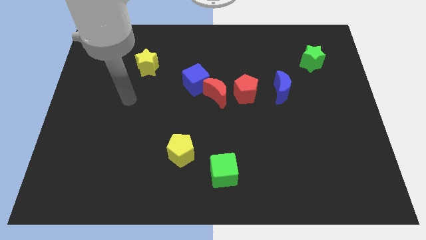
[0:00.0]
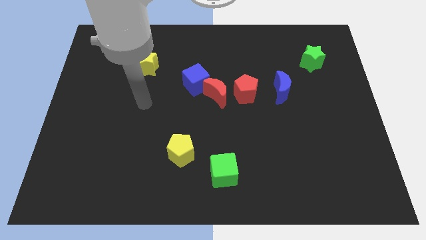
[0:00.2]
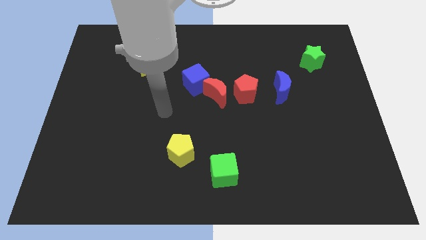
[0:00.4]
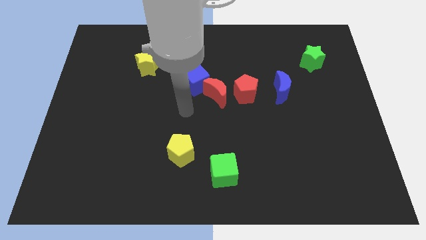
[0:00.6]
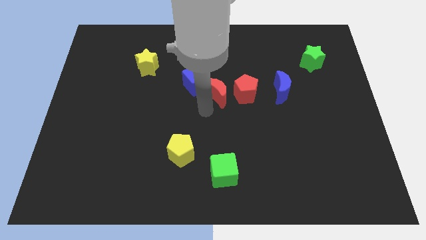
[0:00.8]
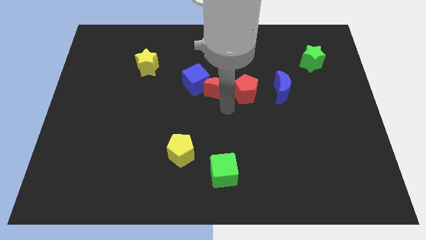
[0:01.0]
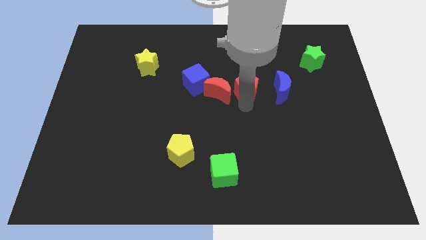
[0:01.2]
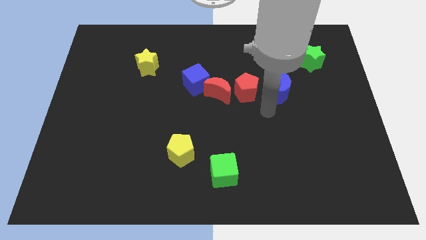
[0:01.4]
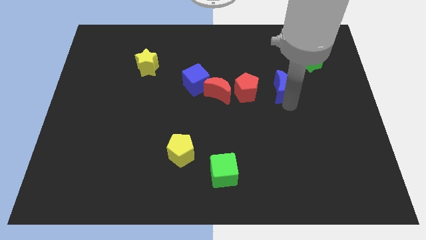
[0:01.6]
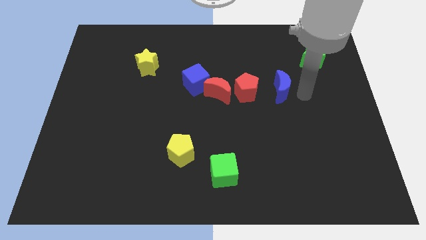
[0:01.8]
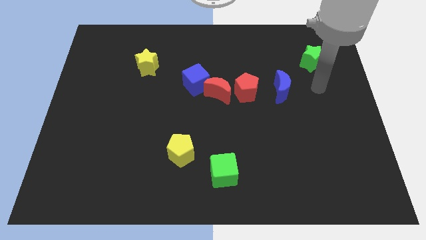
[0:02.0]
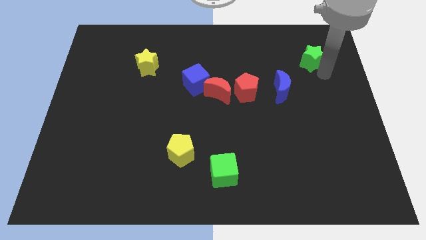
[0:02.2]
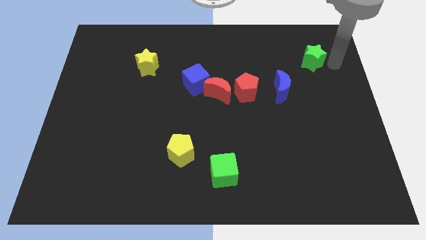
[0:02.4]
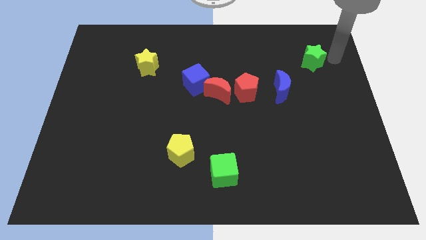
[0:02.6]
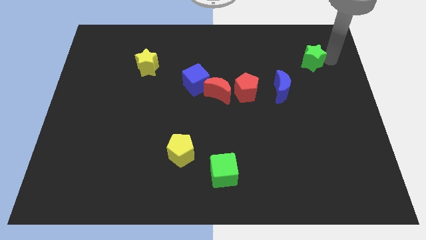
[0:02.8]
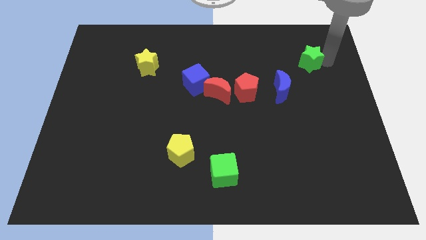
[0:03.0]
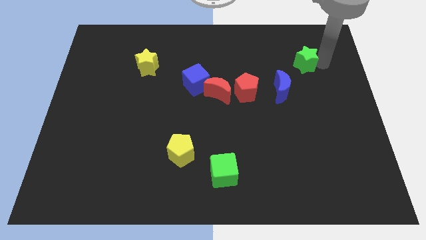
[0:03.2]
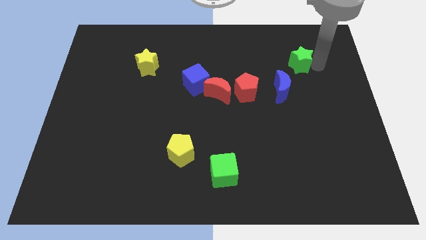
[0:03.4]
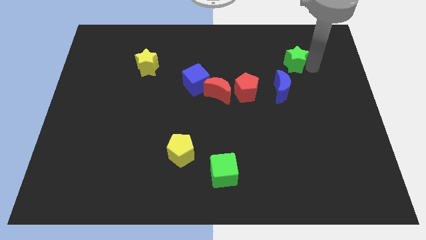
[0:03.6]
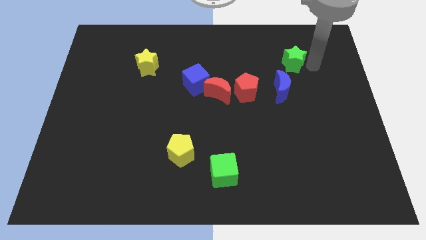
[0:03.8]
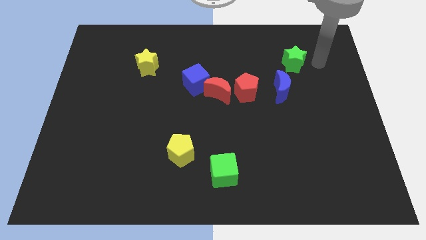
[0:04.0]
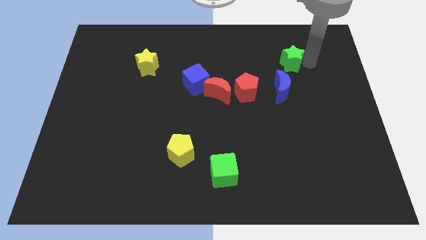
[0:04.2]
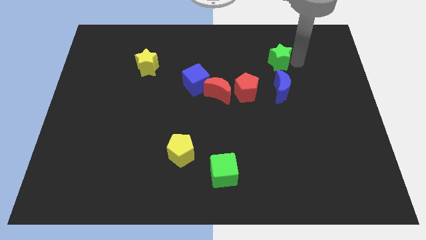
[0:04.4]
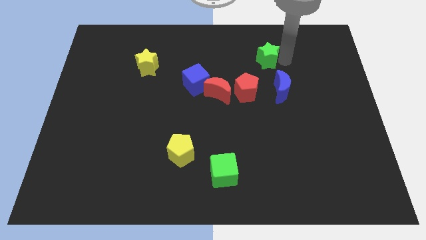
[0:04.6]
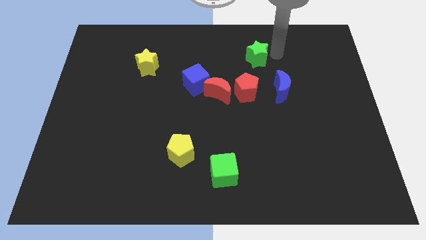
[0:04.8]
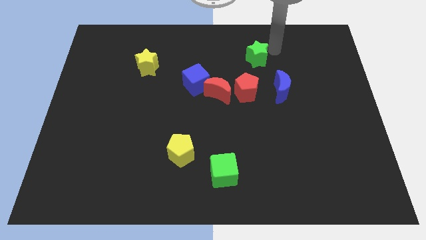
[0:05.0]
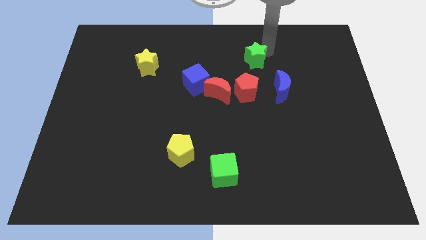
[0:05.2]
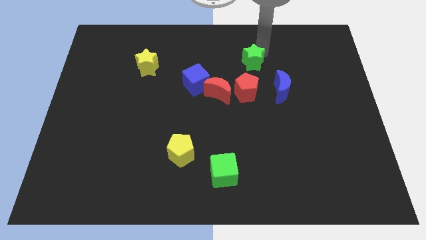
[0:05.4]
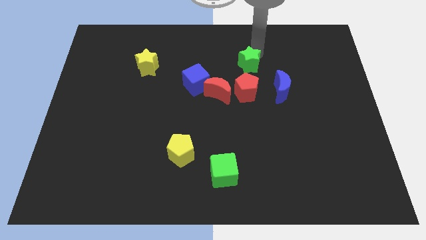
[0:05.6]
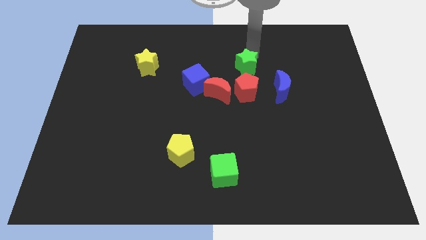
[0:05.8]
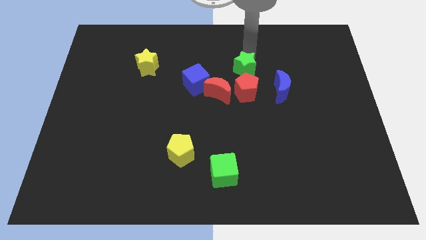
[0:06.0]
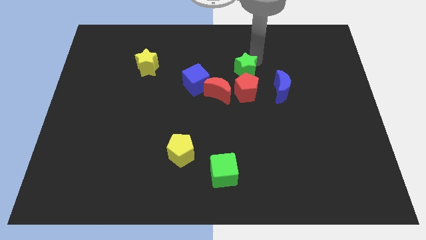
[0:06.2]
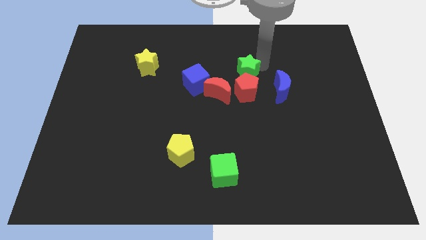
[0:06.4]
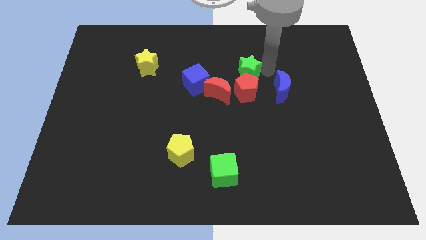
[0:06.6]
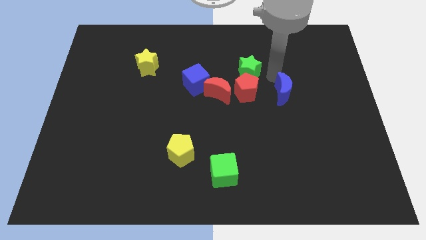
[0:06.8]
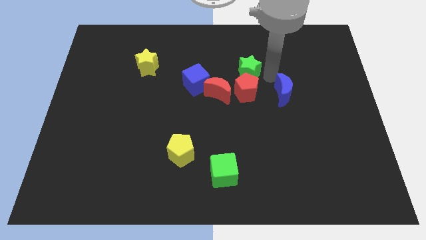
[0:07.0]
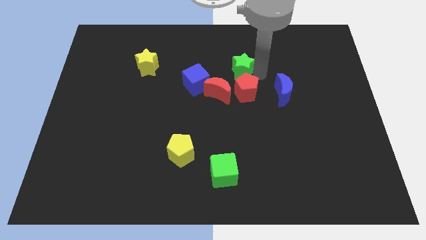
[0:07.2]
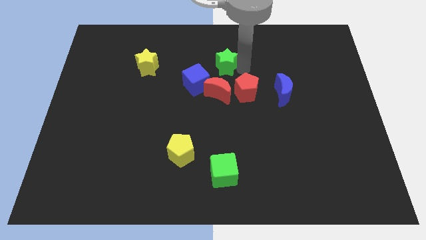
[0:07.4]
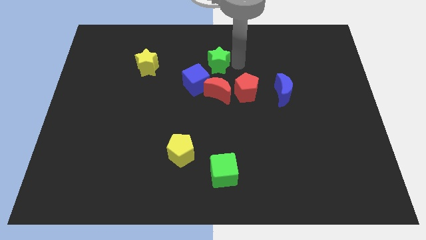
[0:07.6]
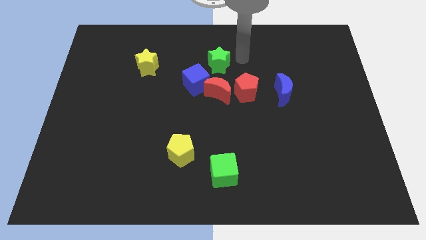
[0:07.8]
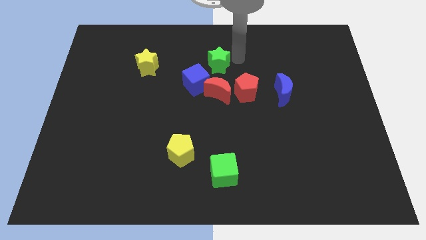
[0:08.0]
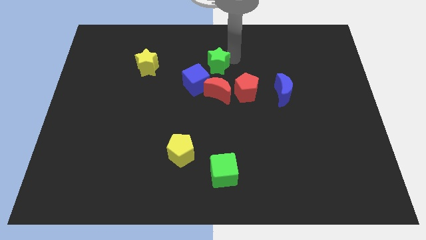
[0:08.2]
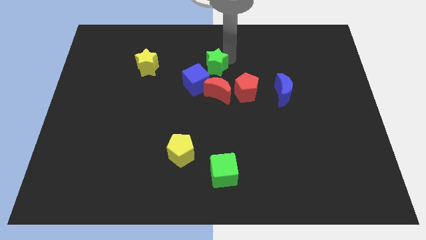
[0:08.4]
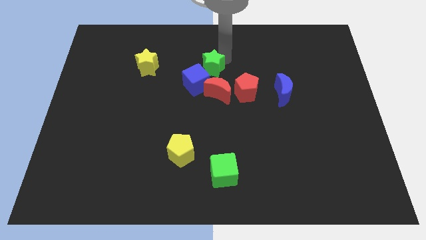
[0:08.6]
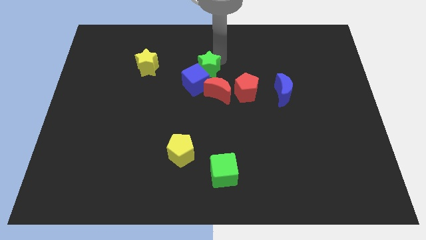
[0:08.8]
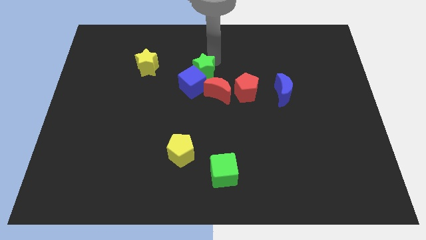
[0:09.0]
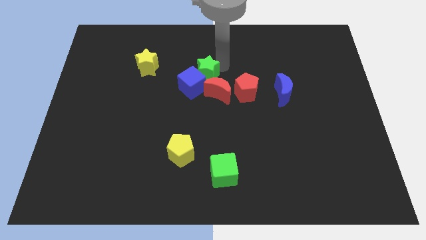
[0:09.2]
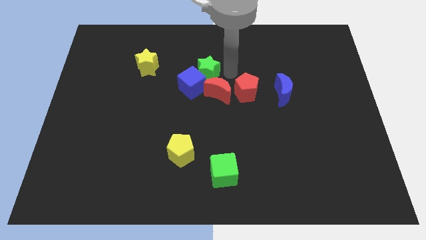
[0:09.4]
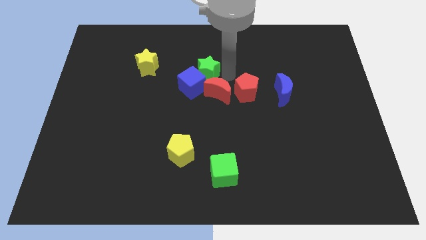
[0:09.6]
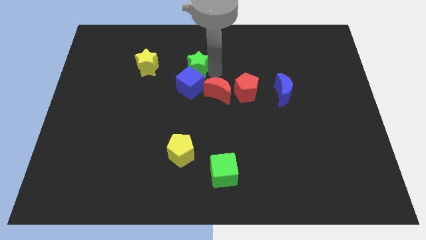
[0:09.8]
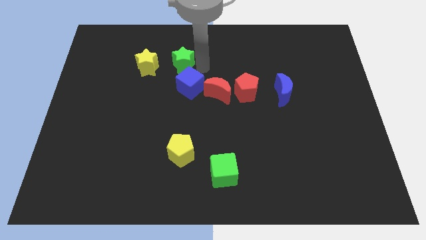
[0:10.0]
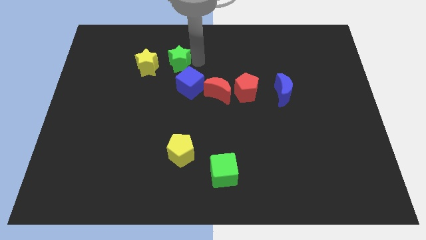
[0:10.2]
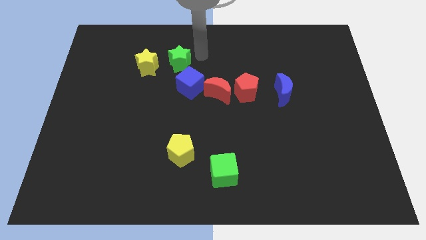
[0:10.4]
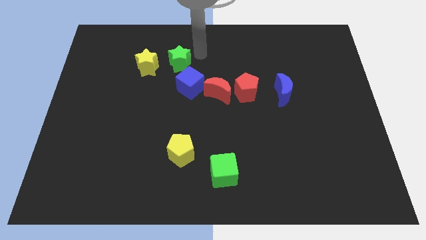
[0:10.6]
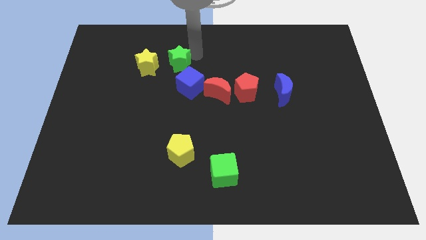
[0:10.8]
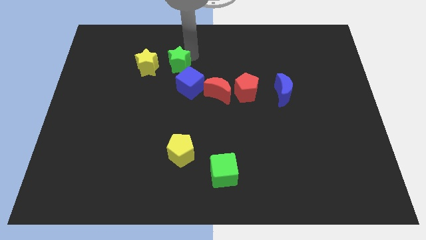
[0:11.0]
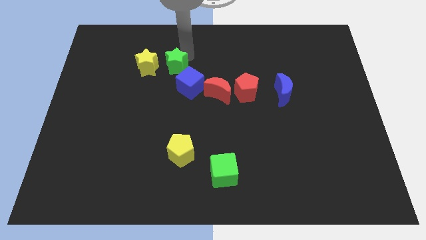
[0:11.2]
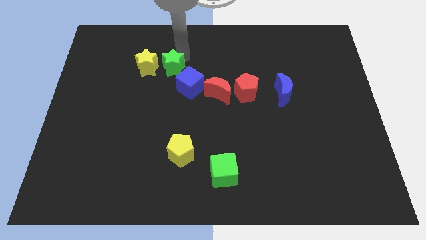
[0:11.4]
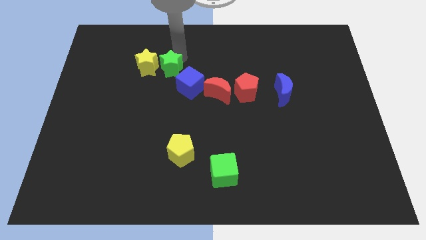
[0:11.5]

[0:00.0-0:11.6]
move the green star towards the yellow star

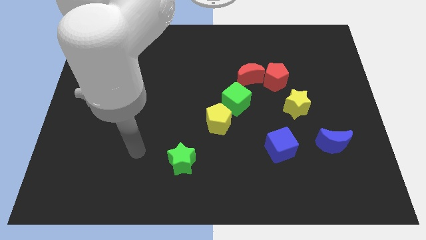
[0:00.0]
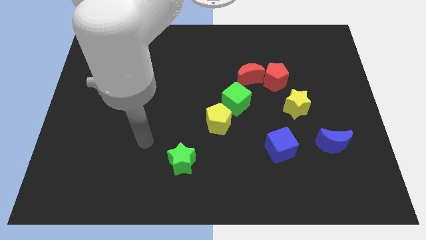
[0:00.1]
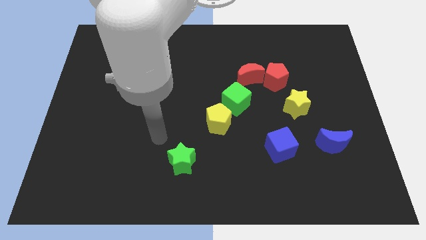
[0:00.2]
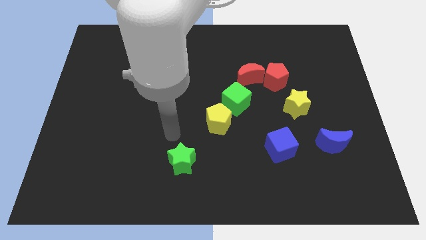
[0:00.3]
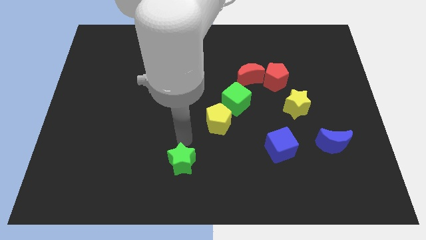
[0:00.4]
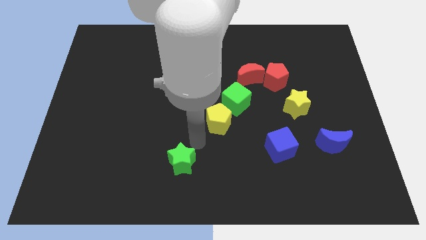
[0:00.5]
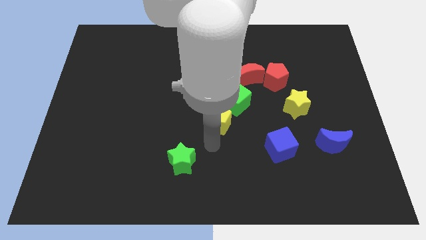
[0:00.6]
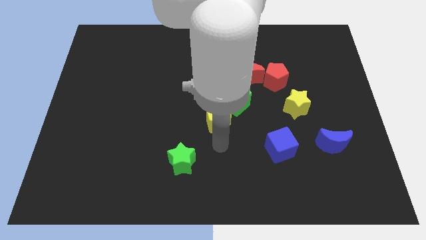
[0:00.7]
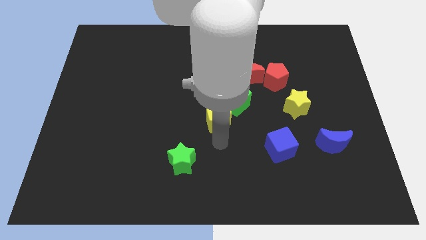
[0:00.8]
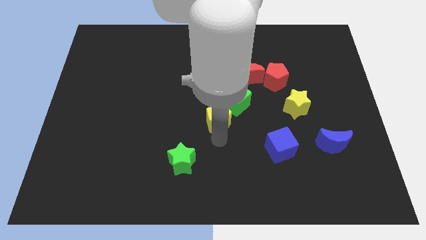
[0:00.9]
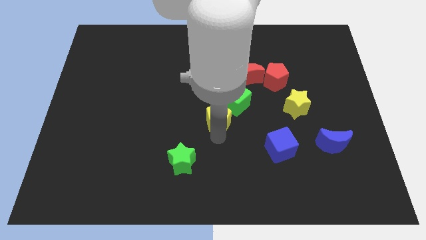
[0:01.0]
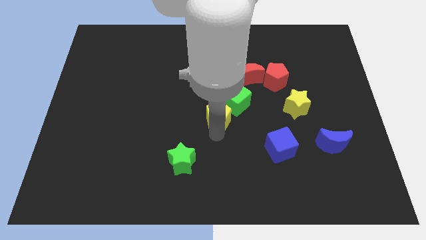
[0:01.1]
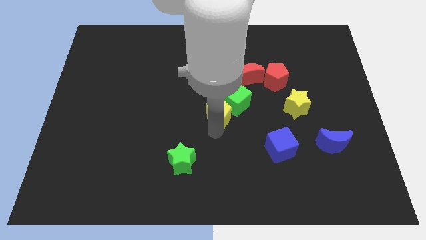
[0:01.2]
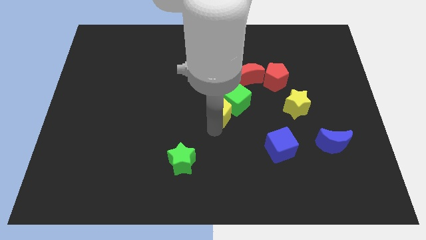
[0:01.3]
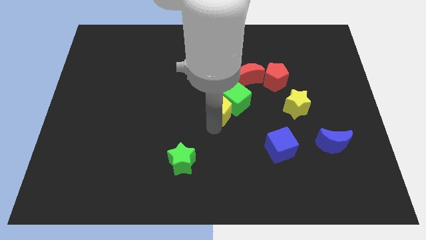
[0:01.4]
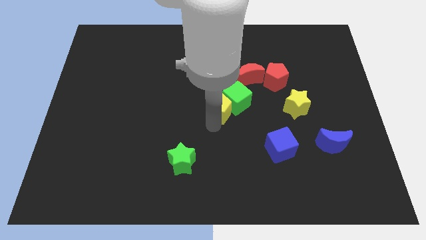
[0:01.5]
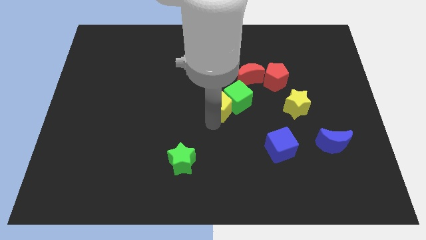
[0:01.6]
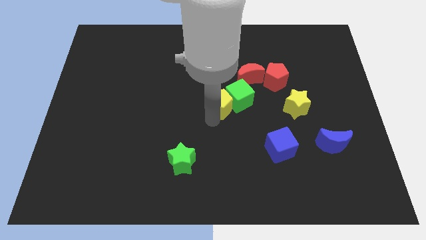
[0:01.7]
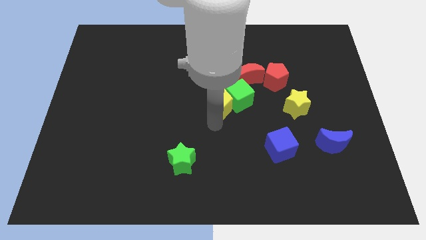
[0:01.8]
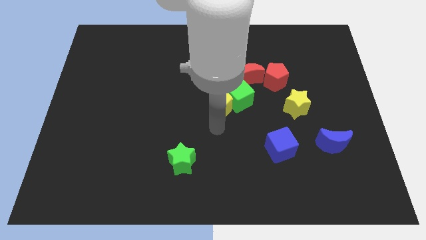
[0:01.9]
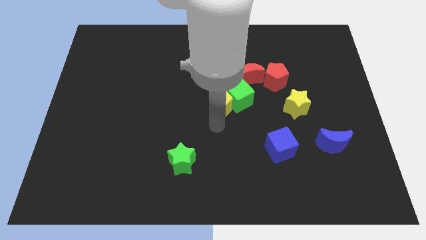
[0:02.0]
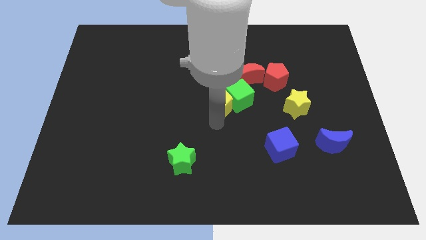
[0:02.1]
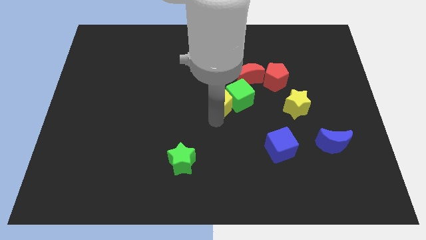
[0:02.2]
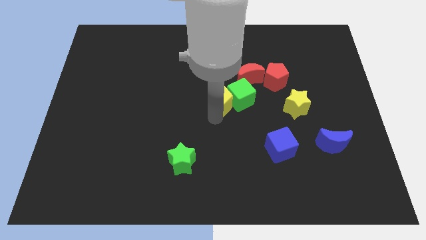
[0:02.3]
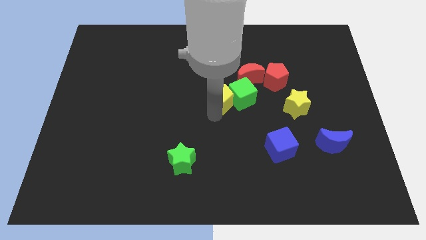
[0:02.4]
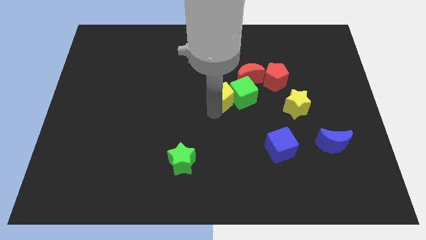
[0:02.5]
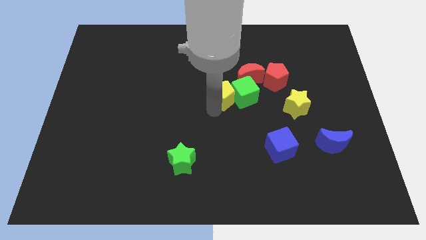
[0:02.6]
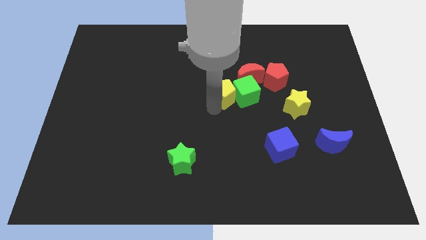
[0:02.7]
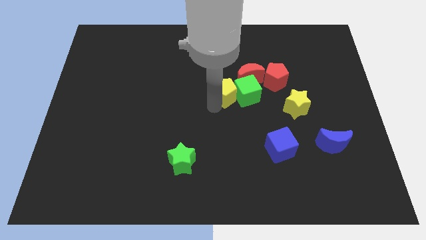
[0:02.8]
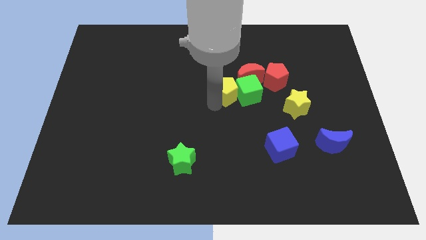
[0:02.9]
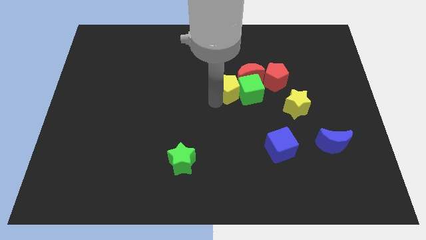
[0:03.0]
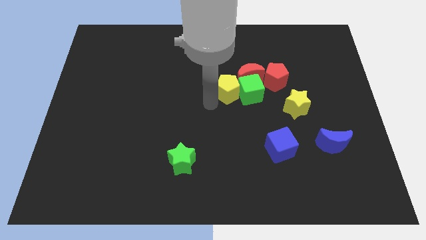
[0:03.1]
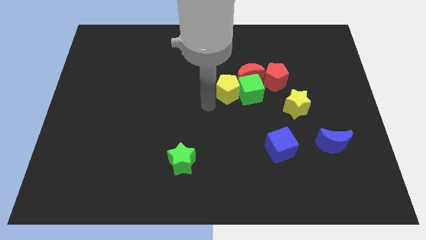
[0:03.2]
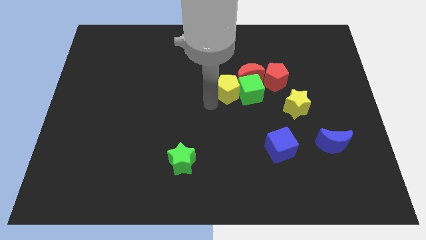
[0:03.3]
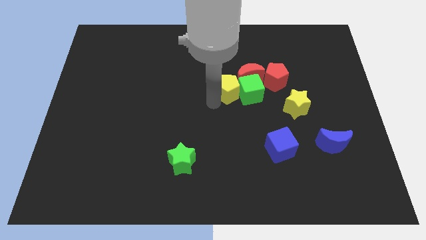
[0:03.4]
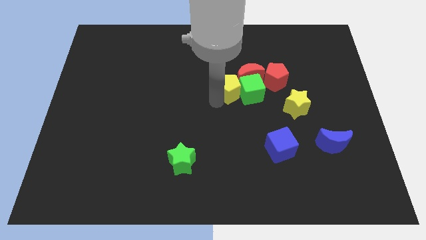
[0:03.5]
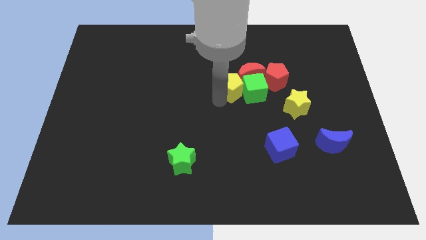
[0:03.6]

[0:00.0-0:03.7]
move the yellow pentagon towards the red moon
